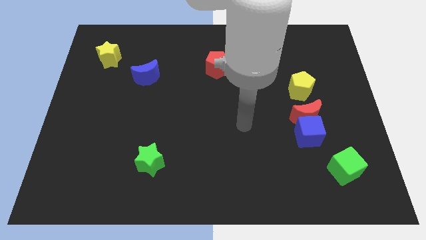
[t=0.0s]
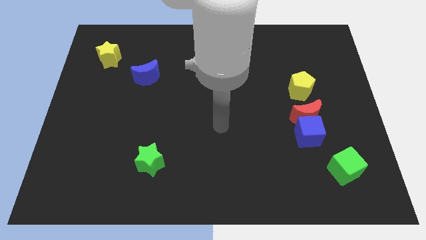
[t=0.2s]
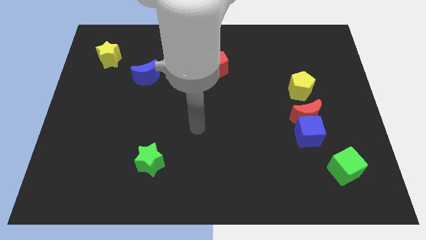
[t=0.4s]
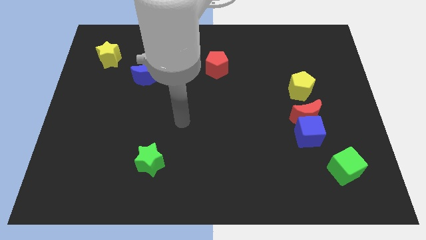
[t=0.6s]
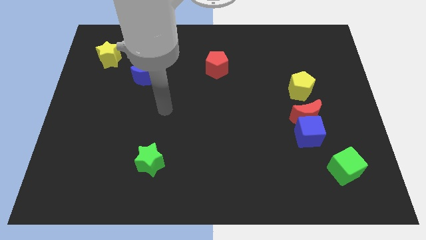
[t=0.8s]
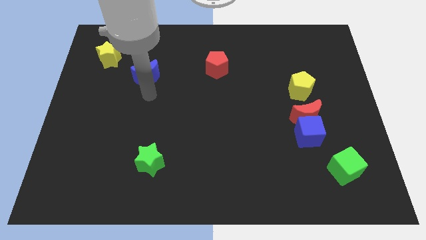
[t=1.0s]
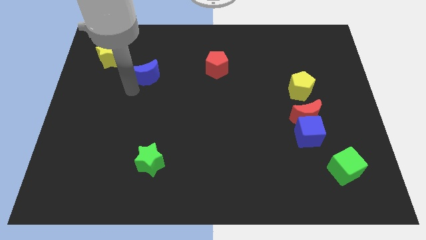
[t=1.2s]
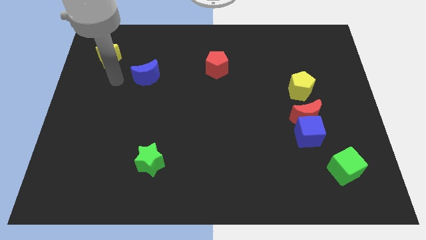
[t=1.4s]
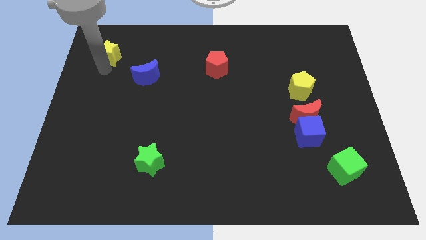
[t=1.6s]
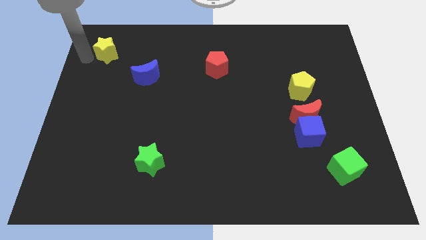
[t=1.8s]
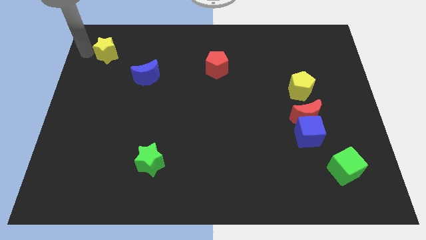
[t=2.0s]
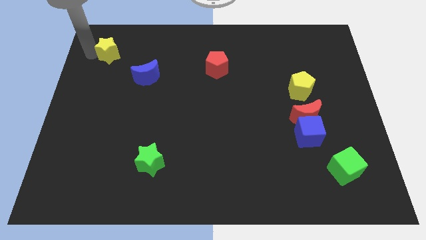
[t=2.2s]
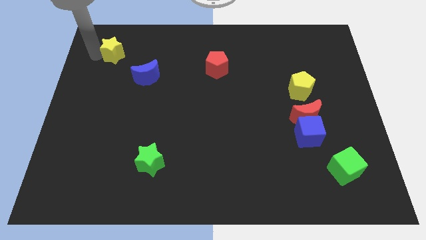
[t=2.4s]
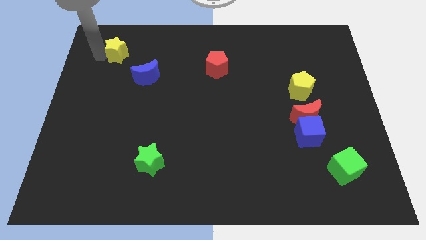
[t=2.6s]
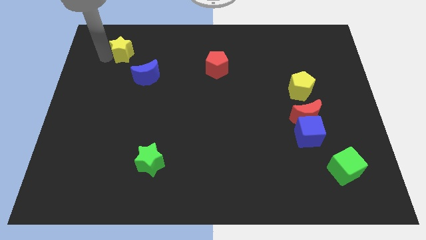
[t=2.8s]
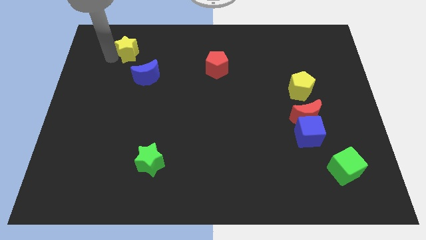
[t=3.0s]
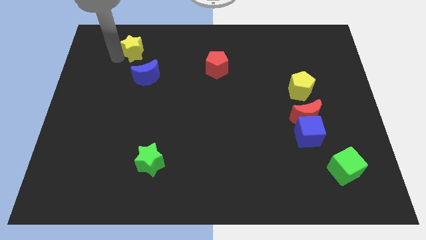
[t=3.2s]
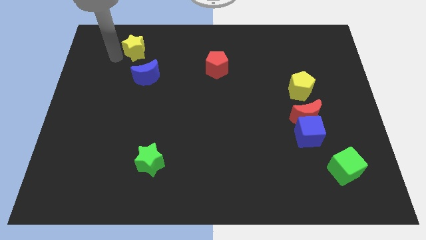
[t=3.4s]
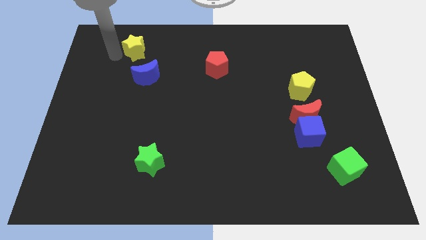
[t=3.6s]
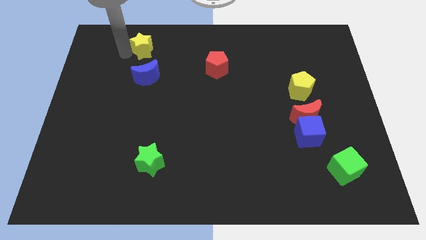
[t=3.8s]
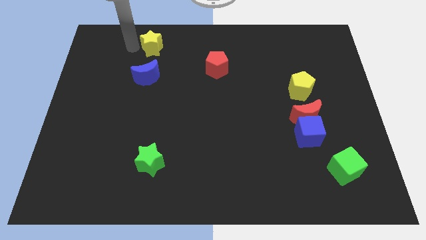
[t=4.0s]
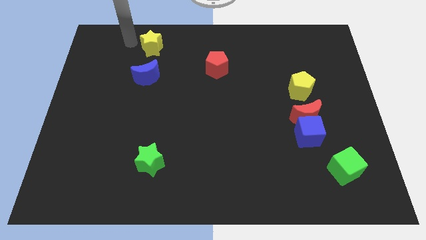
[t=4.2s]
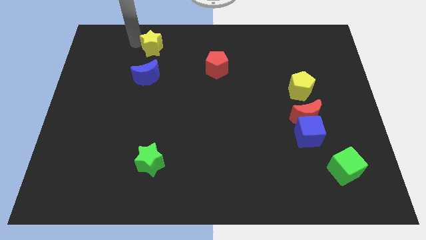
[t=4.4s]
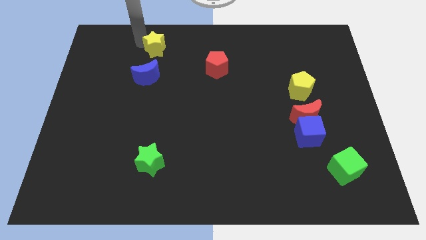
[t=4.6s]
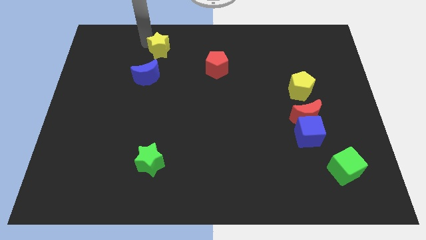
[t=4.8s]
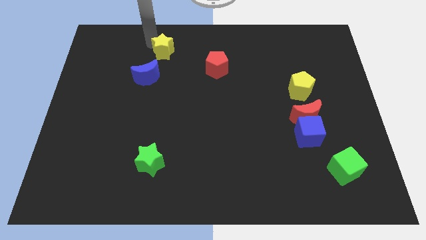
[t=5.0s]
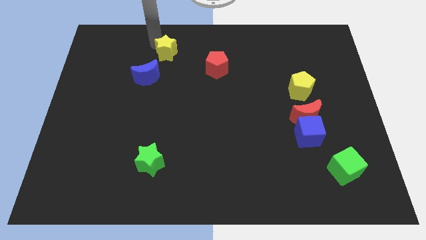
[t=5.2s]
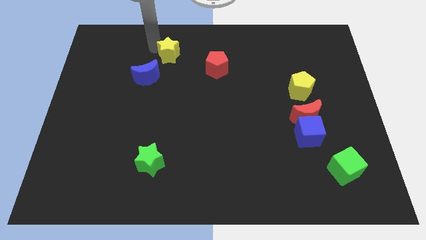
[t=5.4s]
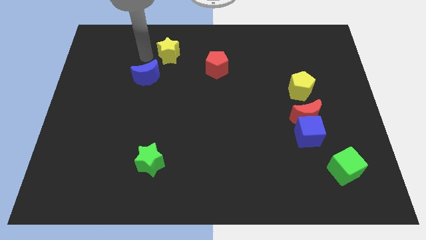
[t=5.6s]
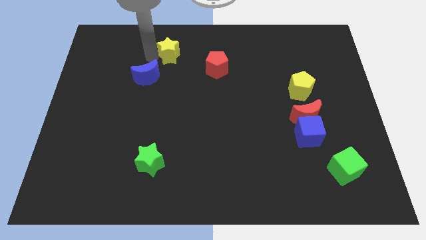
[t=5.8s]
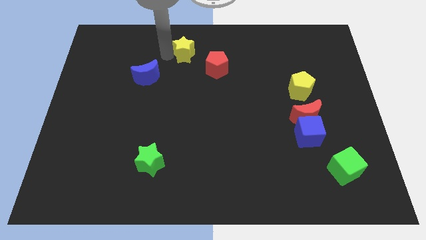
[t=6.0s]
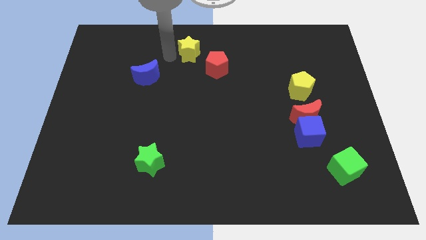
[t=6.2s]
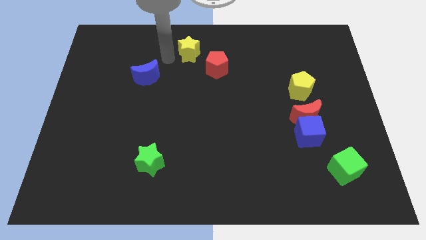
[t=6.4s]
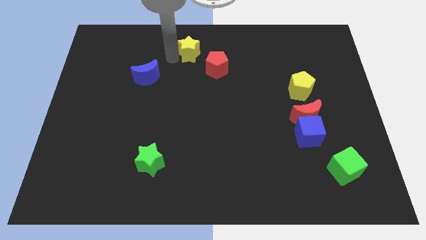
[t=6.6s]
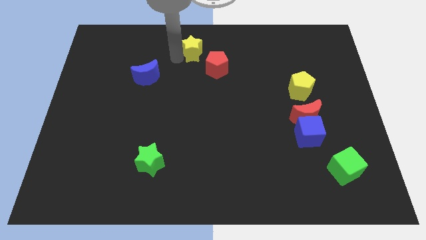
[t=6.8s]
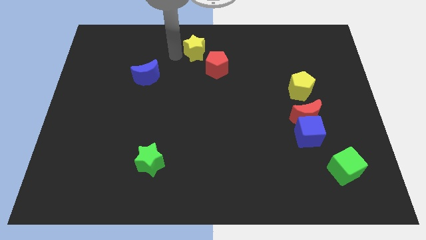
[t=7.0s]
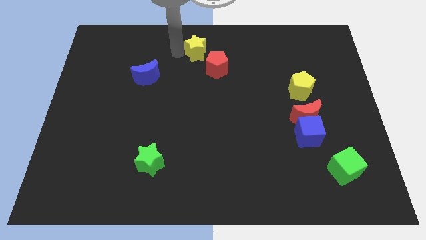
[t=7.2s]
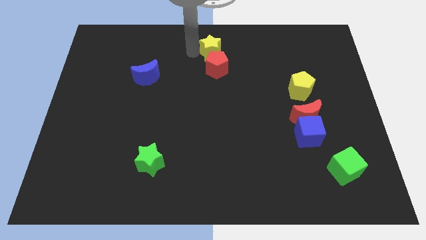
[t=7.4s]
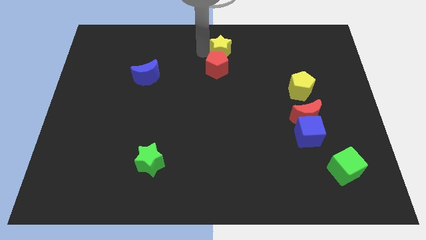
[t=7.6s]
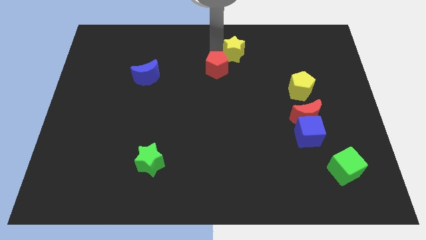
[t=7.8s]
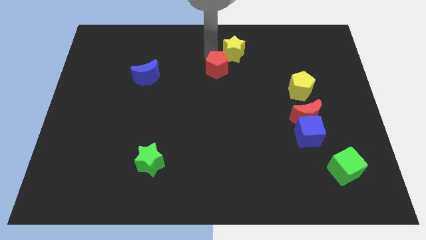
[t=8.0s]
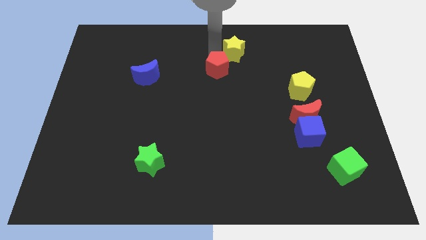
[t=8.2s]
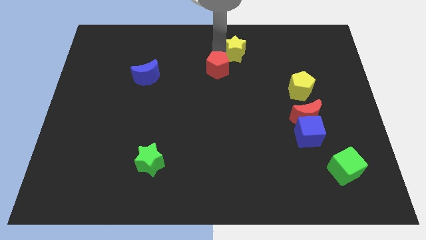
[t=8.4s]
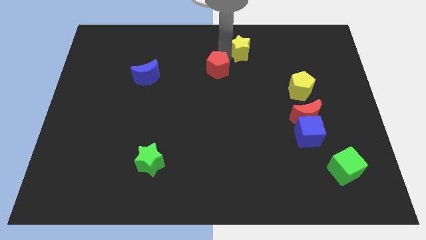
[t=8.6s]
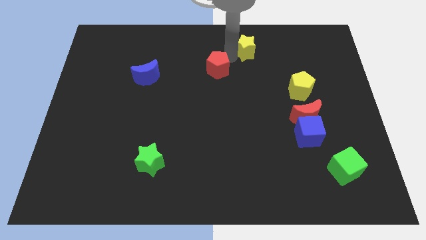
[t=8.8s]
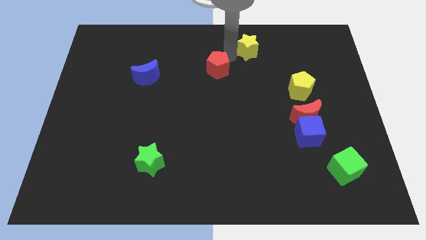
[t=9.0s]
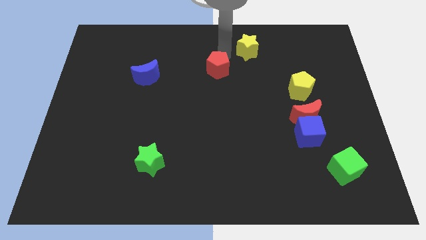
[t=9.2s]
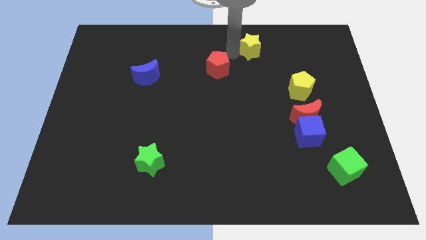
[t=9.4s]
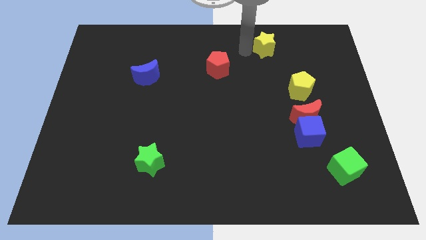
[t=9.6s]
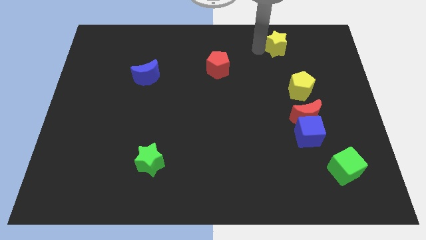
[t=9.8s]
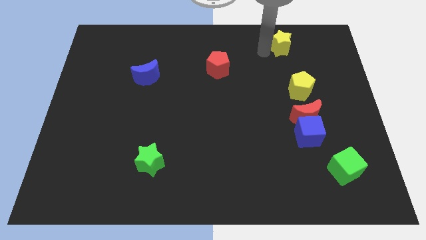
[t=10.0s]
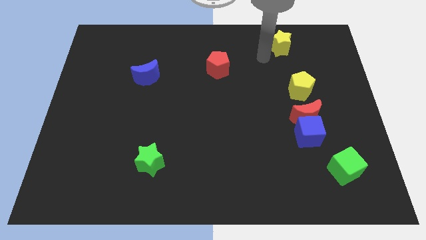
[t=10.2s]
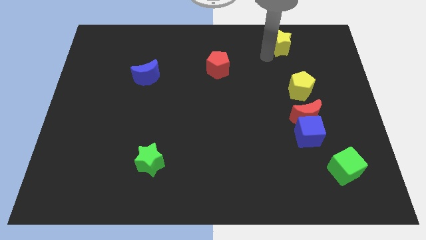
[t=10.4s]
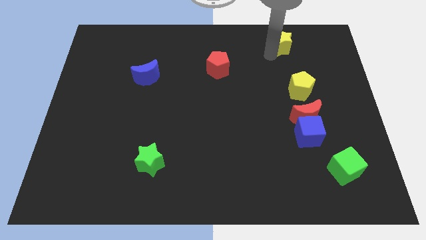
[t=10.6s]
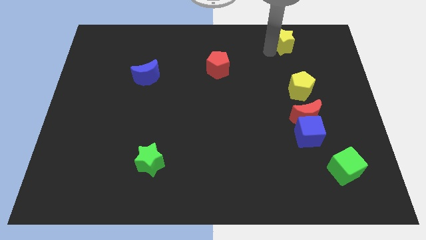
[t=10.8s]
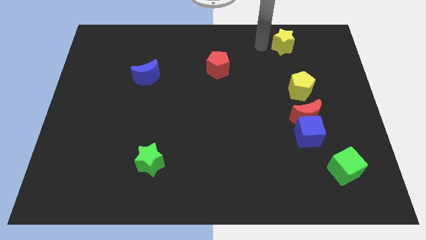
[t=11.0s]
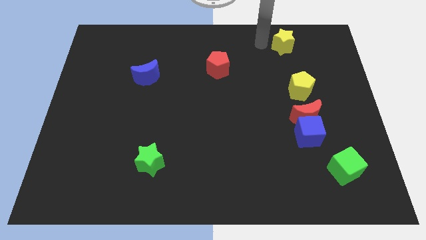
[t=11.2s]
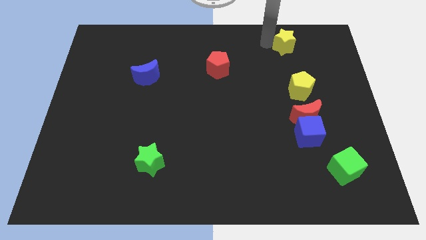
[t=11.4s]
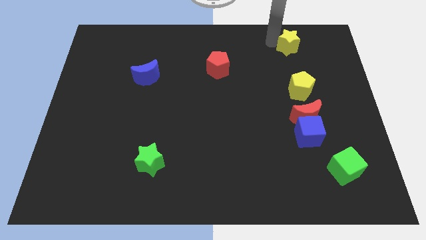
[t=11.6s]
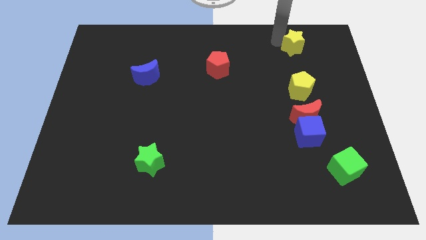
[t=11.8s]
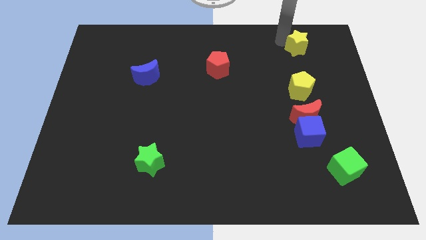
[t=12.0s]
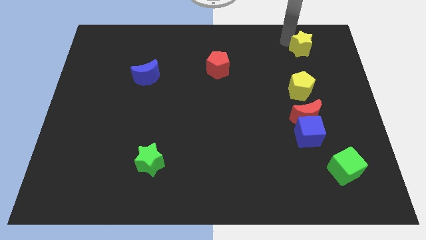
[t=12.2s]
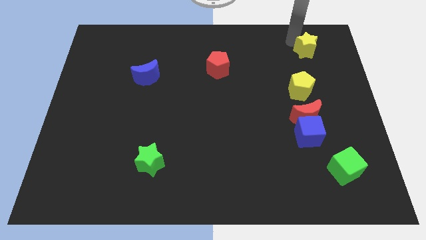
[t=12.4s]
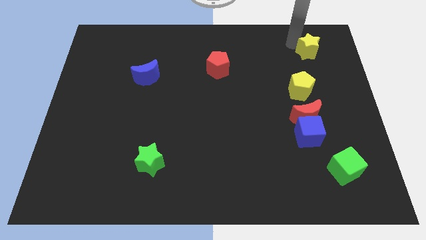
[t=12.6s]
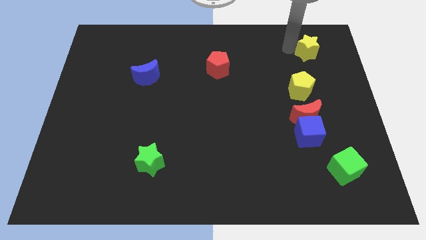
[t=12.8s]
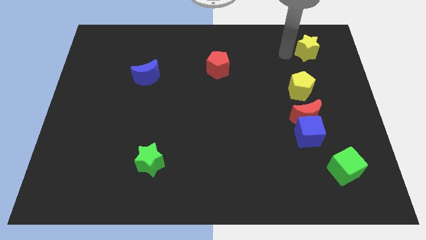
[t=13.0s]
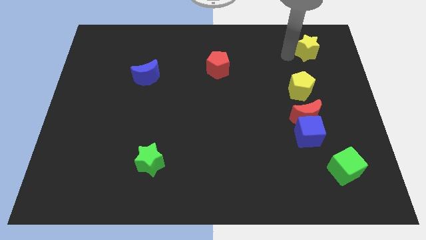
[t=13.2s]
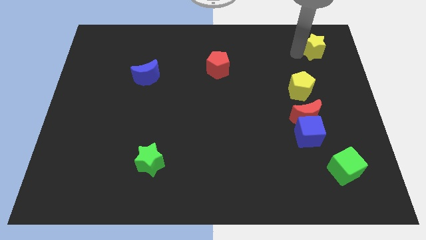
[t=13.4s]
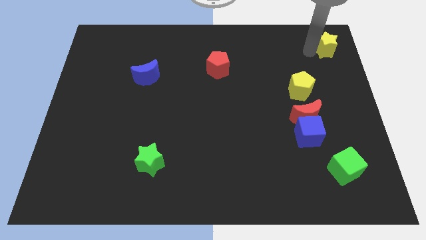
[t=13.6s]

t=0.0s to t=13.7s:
slide the yellow star to the upper right corner

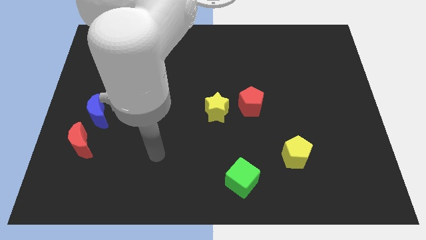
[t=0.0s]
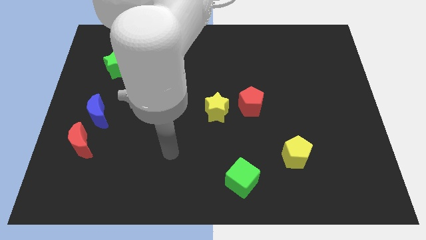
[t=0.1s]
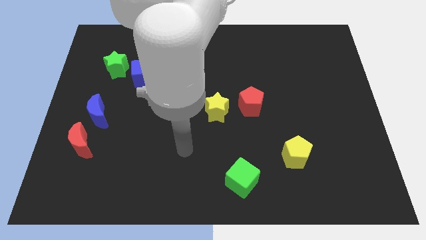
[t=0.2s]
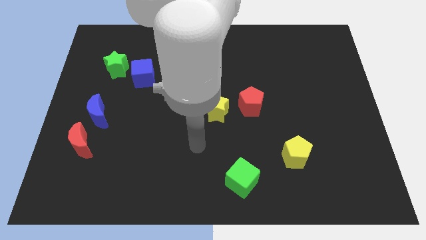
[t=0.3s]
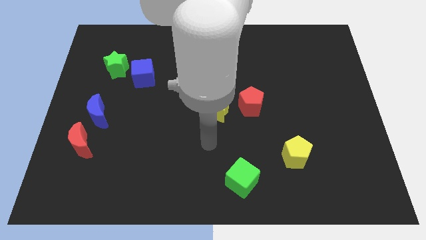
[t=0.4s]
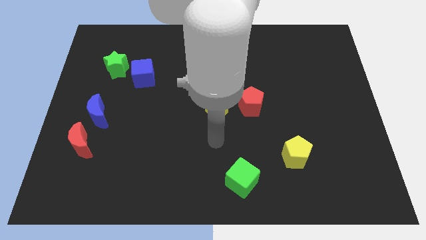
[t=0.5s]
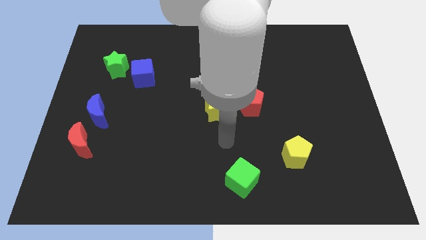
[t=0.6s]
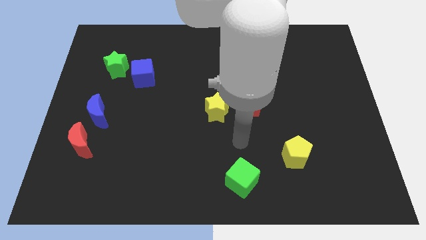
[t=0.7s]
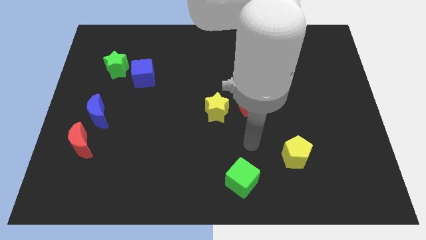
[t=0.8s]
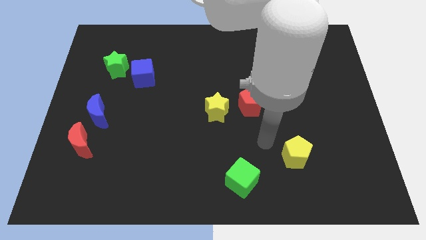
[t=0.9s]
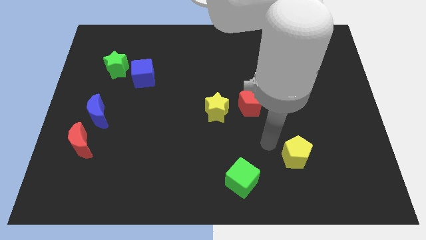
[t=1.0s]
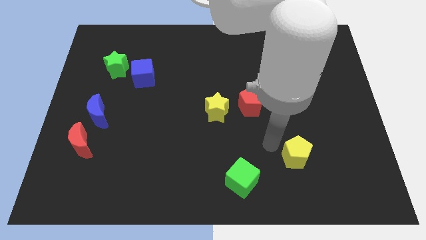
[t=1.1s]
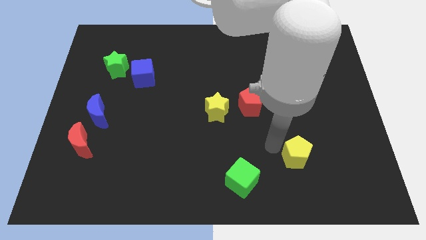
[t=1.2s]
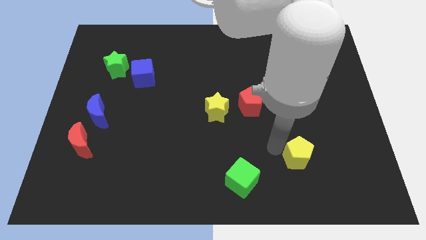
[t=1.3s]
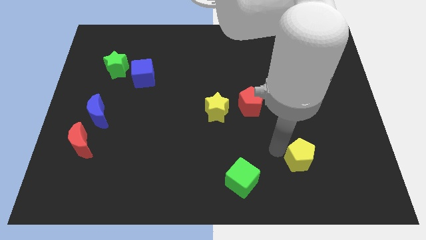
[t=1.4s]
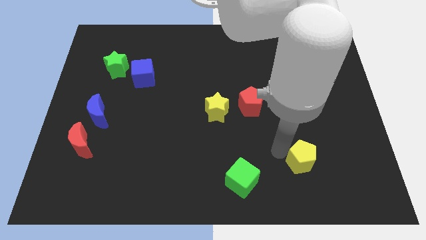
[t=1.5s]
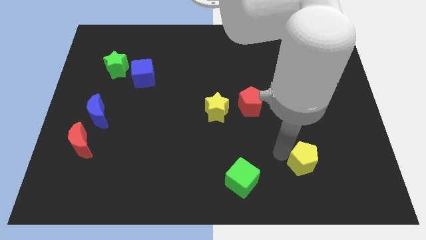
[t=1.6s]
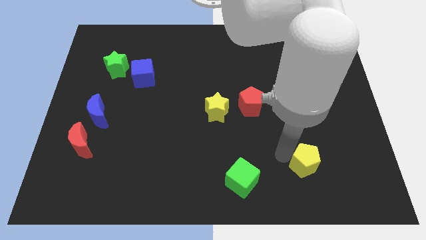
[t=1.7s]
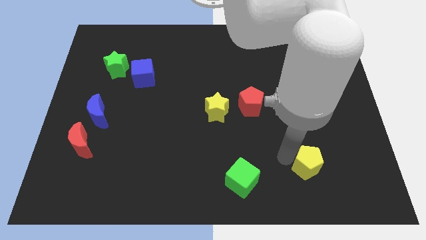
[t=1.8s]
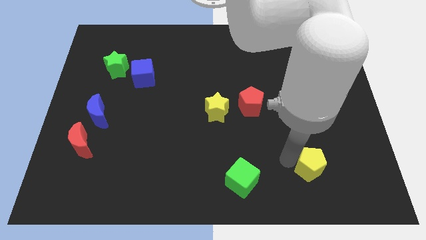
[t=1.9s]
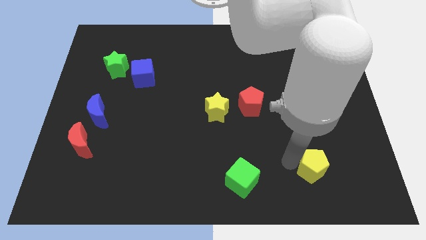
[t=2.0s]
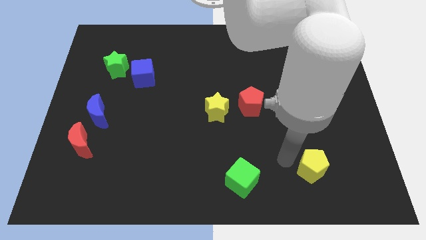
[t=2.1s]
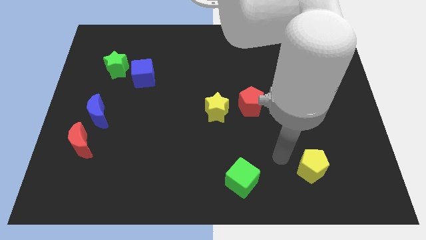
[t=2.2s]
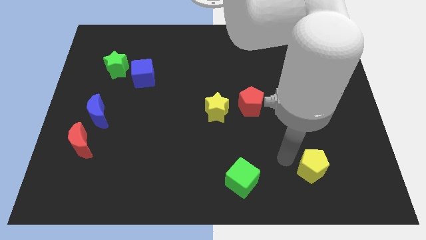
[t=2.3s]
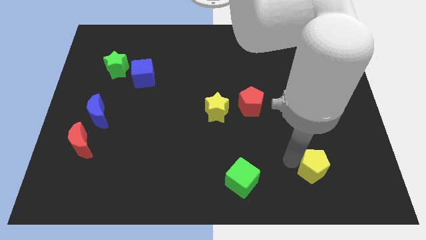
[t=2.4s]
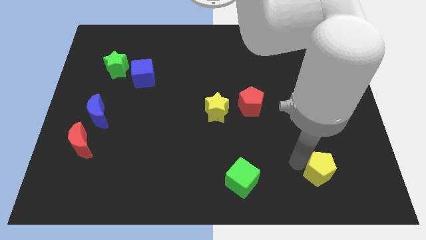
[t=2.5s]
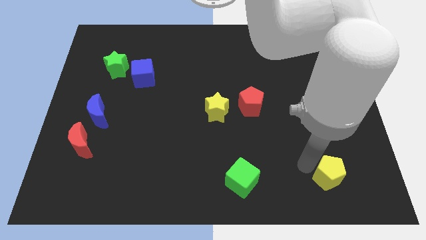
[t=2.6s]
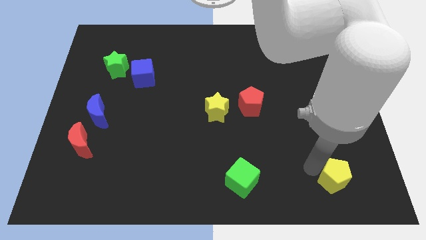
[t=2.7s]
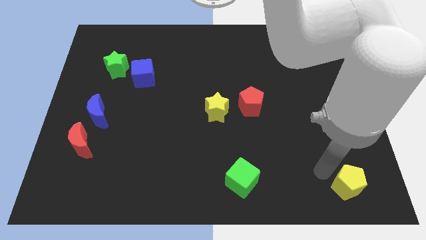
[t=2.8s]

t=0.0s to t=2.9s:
put the yellow pentagon to the lower right corner
